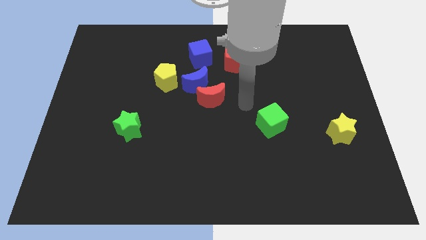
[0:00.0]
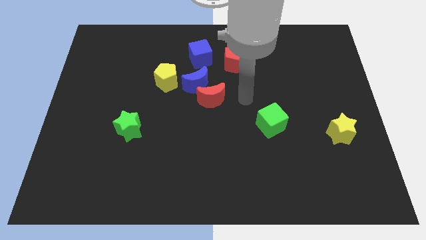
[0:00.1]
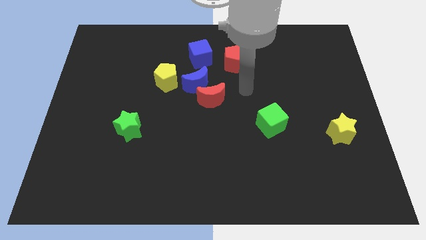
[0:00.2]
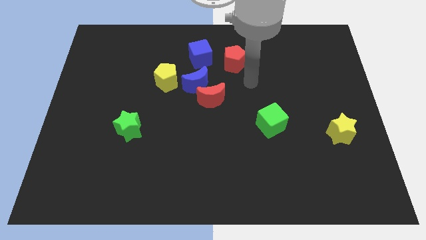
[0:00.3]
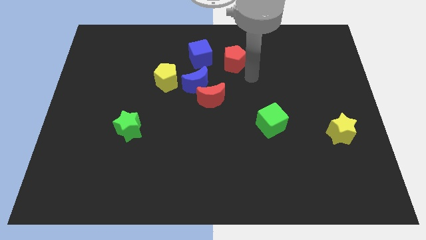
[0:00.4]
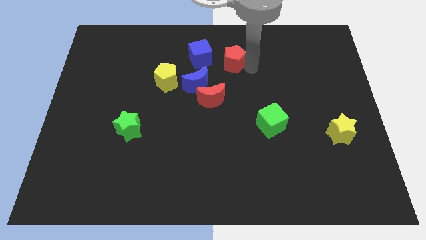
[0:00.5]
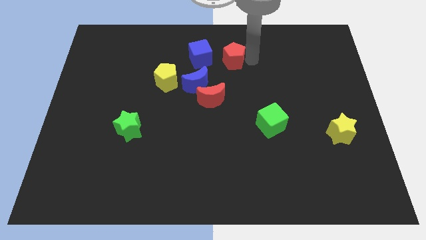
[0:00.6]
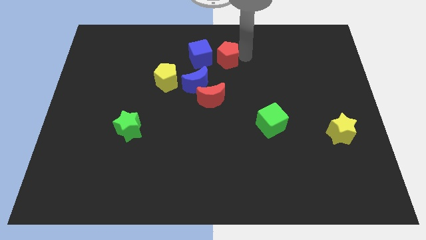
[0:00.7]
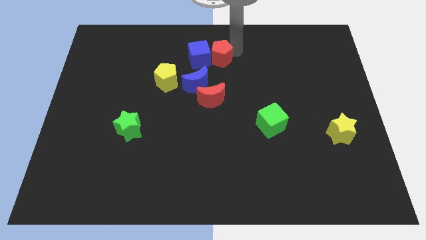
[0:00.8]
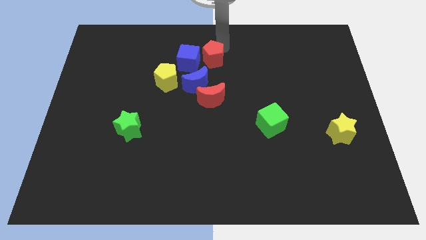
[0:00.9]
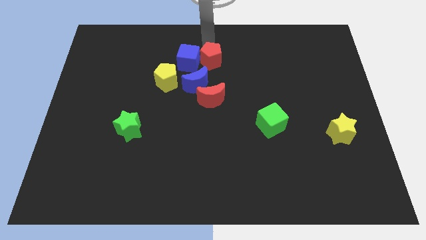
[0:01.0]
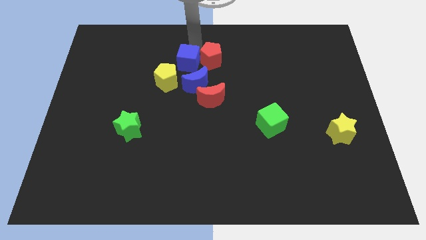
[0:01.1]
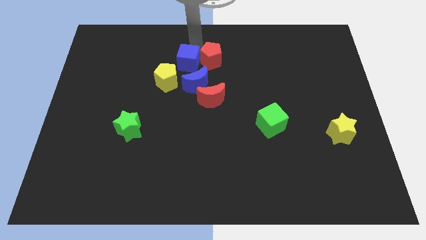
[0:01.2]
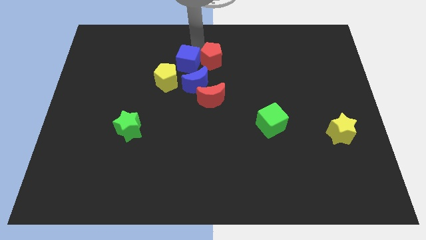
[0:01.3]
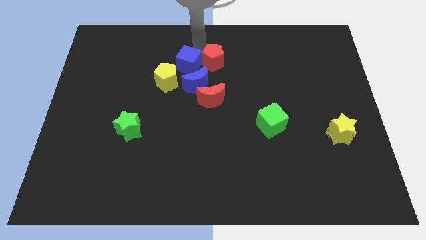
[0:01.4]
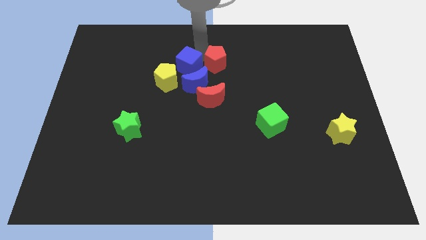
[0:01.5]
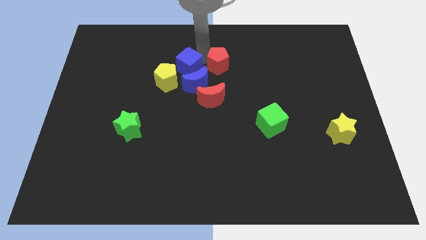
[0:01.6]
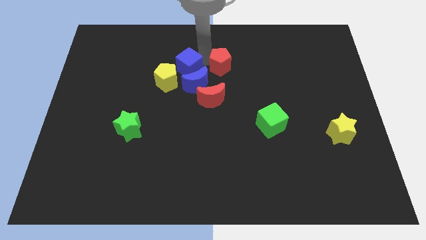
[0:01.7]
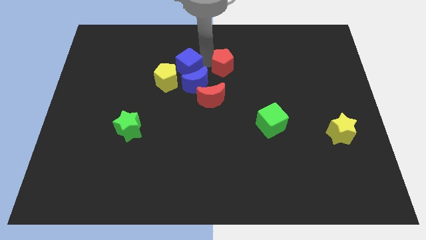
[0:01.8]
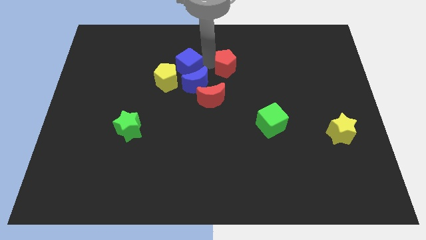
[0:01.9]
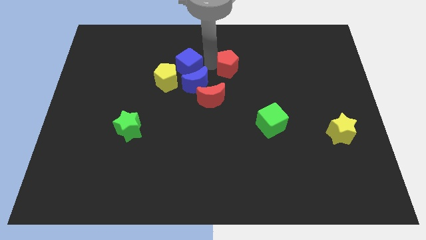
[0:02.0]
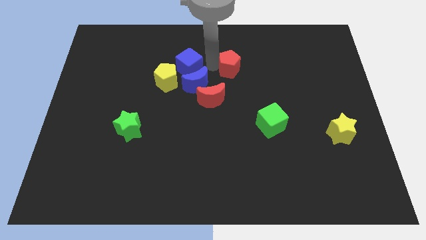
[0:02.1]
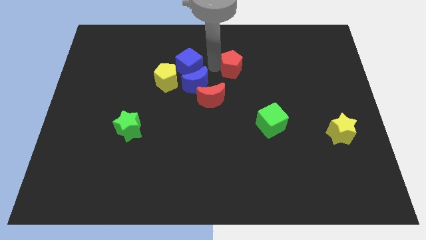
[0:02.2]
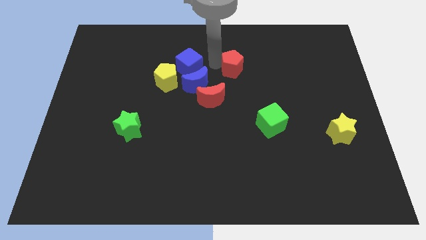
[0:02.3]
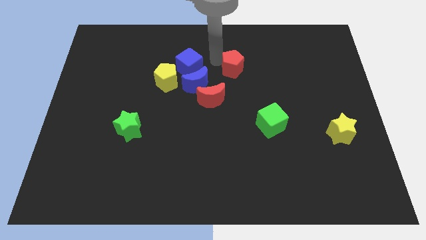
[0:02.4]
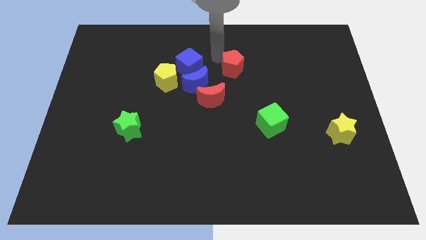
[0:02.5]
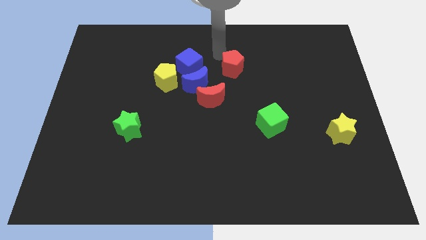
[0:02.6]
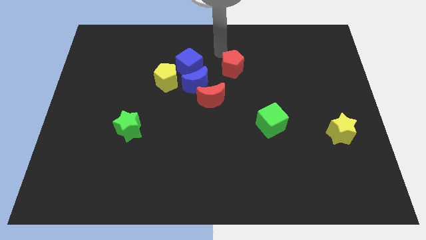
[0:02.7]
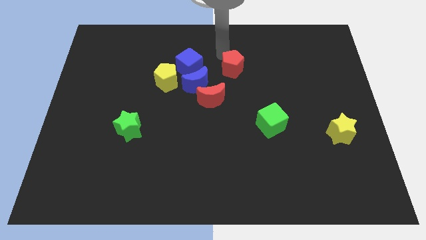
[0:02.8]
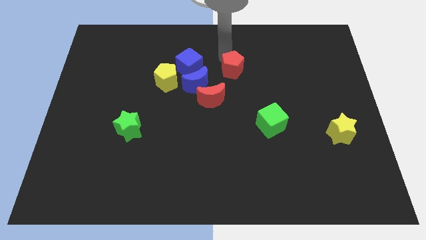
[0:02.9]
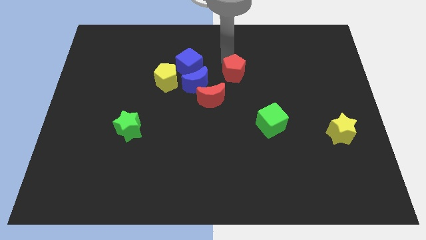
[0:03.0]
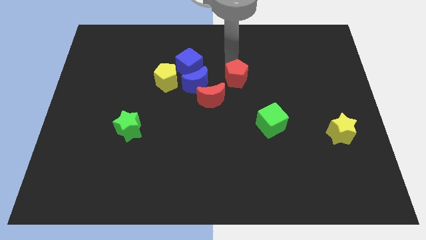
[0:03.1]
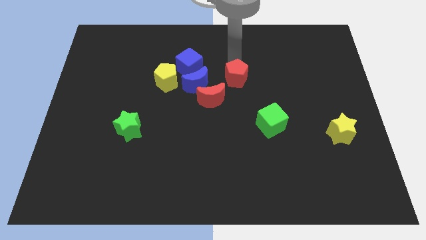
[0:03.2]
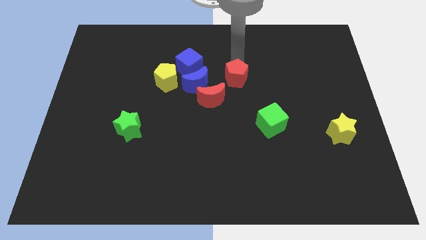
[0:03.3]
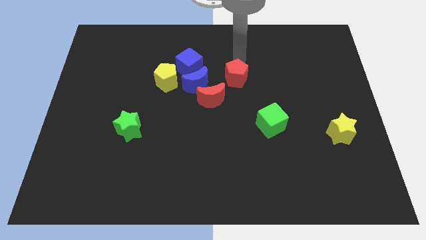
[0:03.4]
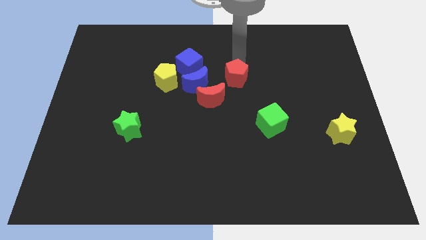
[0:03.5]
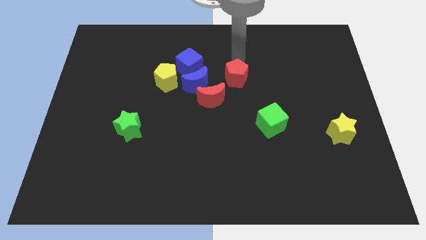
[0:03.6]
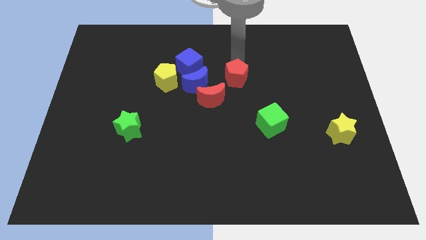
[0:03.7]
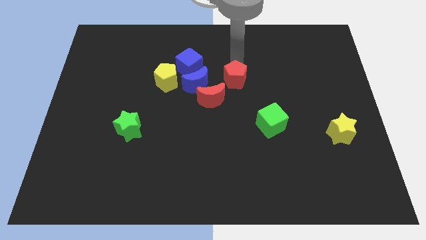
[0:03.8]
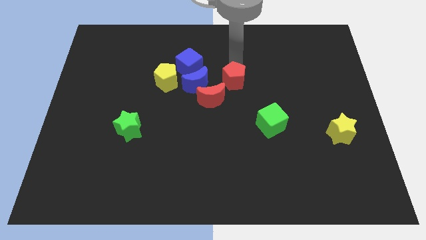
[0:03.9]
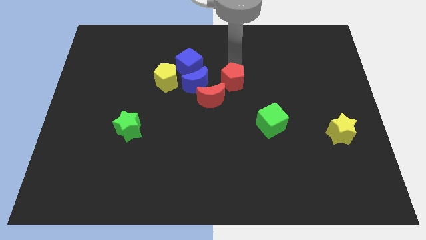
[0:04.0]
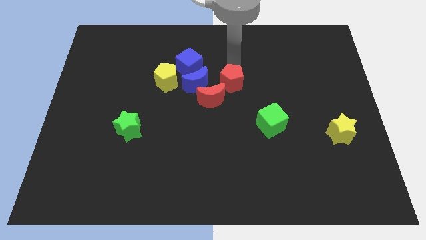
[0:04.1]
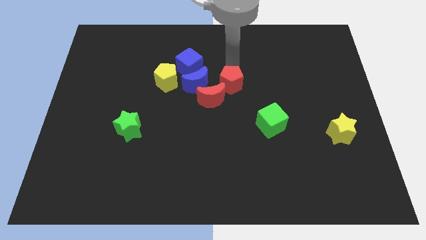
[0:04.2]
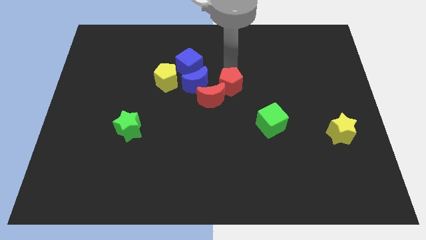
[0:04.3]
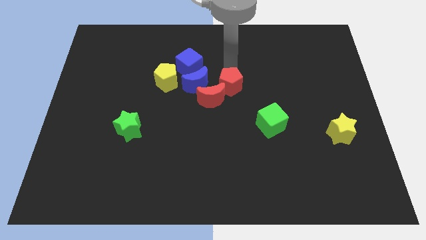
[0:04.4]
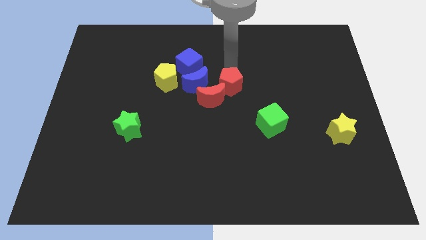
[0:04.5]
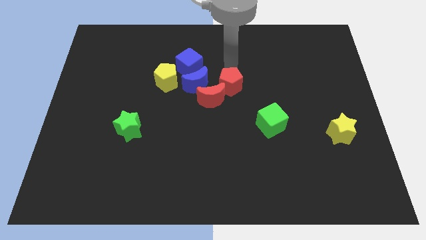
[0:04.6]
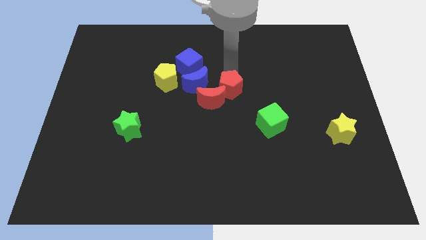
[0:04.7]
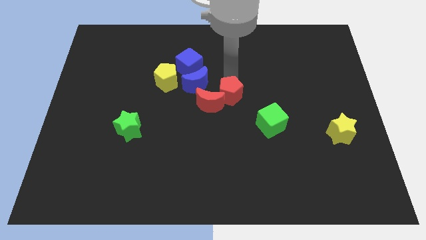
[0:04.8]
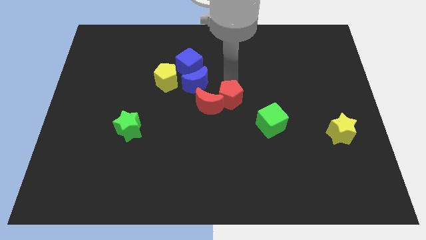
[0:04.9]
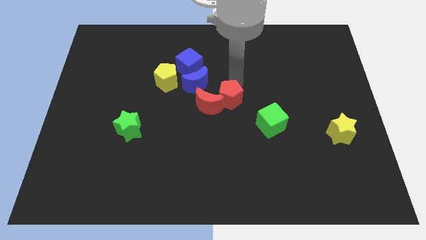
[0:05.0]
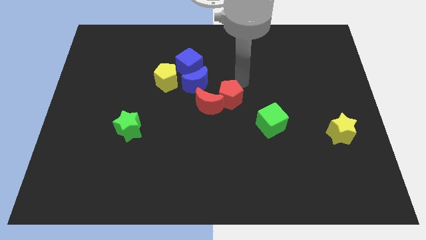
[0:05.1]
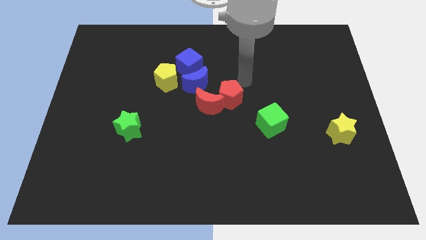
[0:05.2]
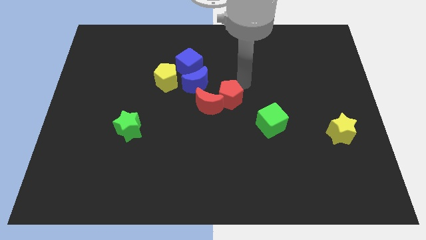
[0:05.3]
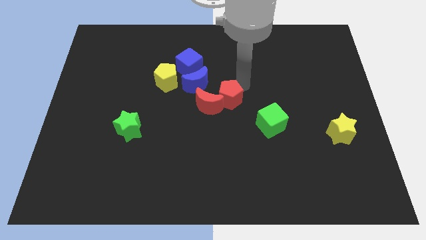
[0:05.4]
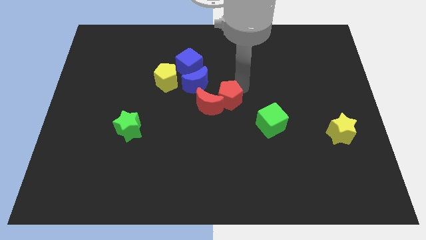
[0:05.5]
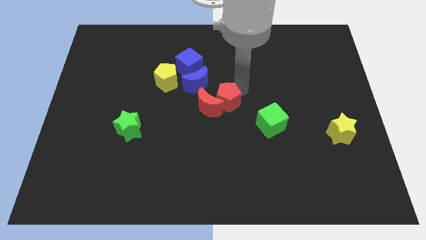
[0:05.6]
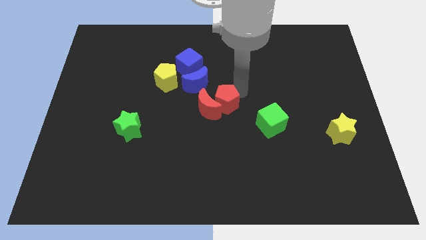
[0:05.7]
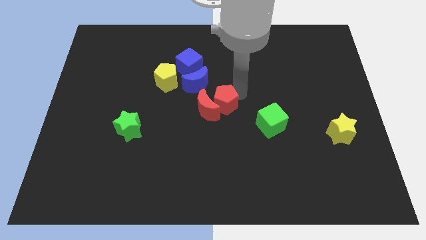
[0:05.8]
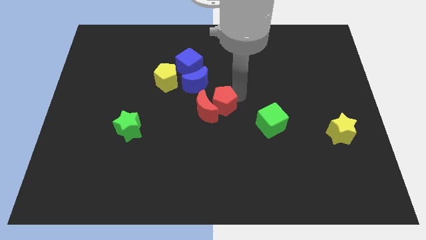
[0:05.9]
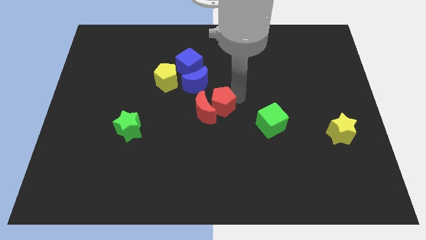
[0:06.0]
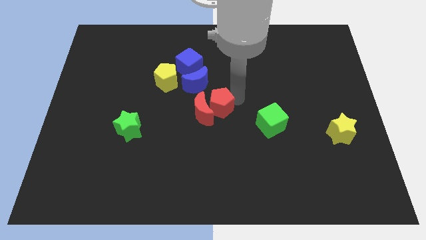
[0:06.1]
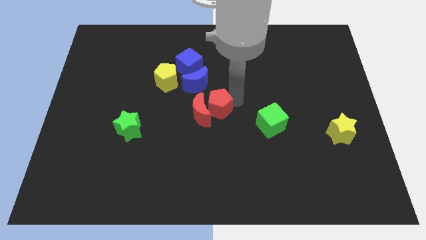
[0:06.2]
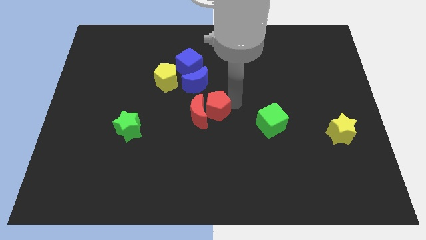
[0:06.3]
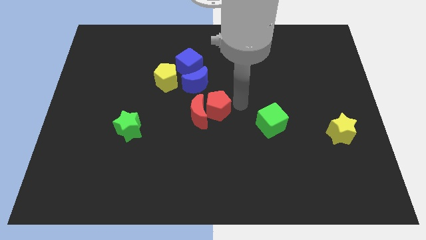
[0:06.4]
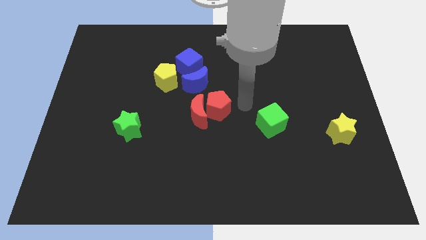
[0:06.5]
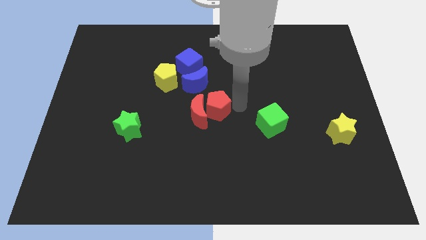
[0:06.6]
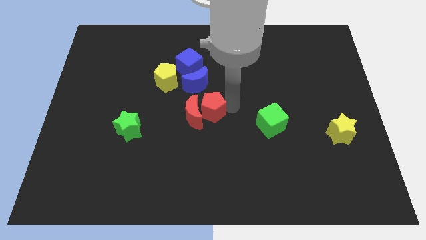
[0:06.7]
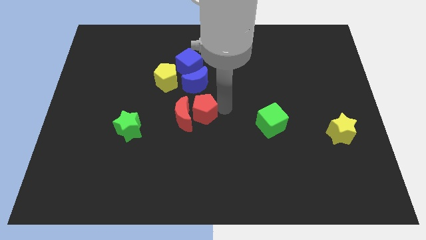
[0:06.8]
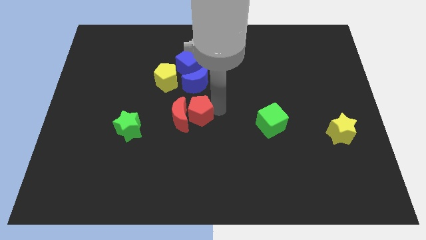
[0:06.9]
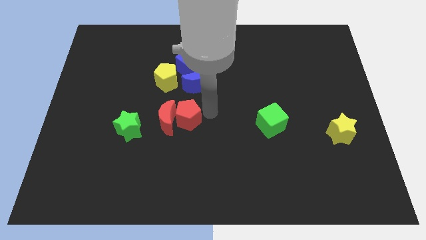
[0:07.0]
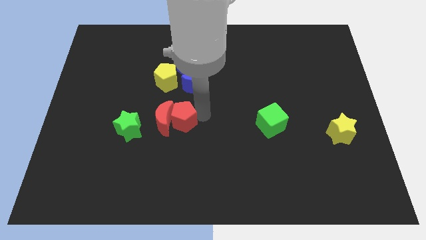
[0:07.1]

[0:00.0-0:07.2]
put the red pentagon below the yellow pentagon
